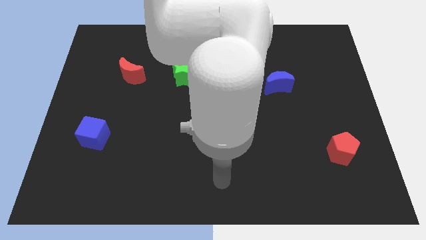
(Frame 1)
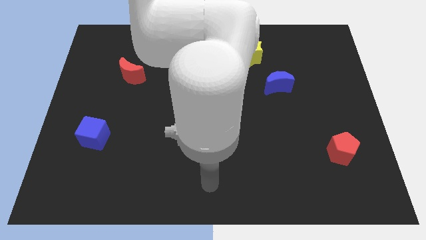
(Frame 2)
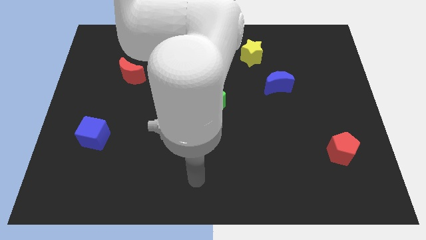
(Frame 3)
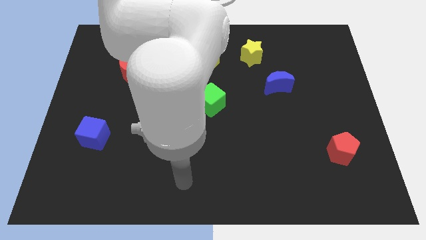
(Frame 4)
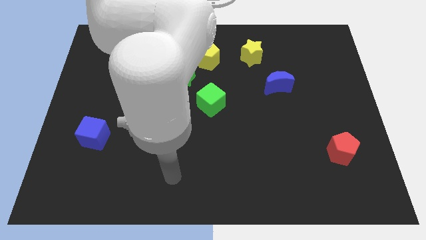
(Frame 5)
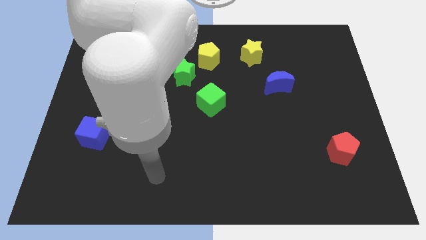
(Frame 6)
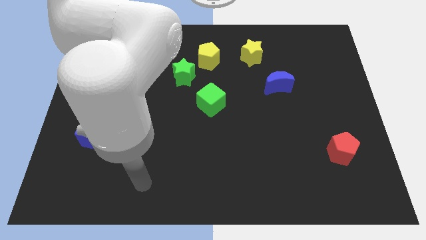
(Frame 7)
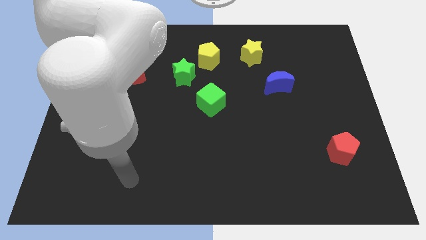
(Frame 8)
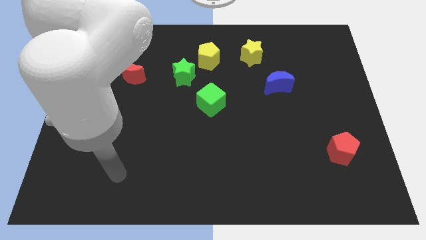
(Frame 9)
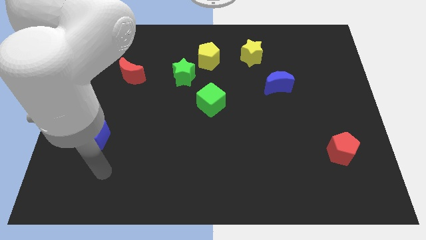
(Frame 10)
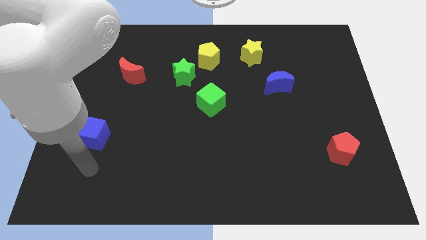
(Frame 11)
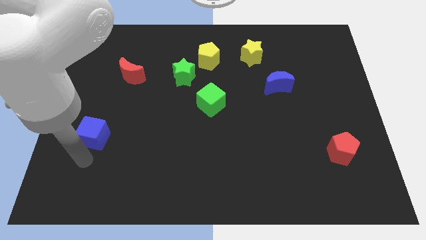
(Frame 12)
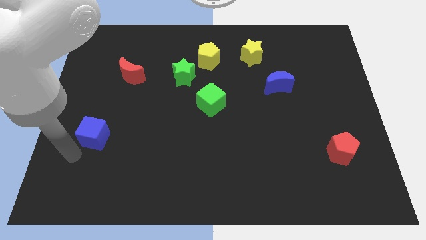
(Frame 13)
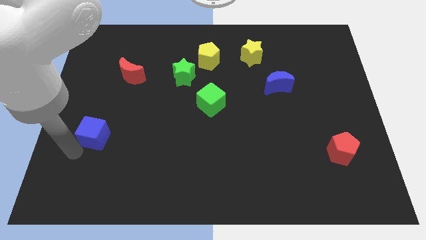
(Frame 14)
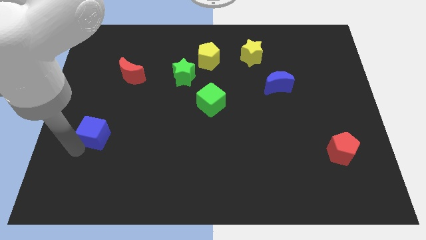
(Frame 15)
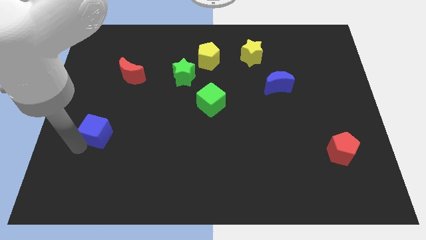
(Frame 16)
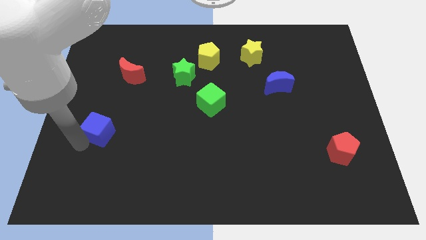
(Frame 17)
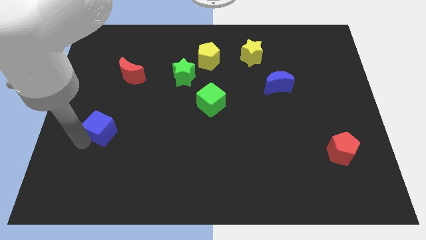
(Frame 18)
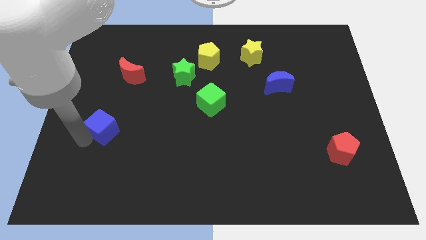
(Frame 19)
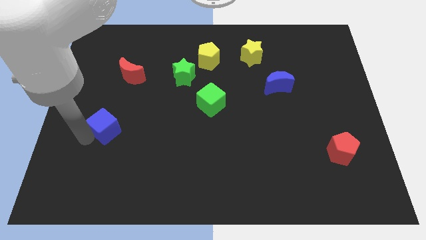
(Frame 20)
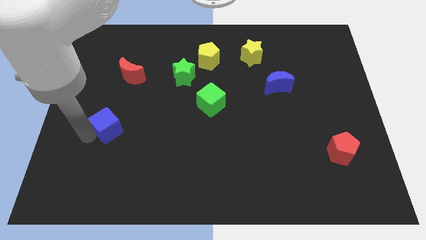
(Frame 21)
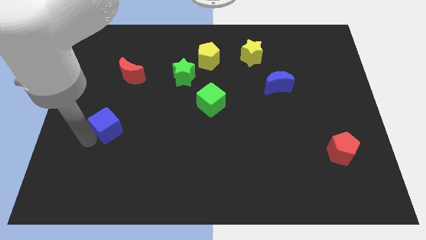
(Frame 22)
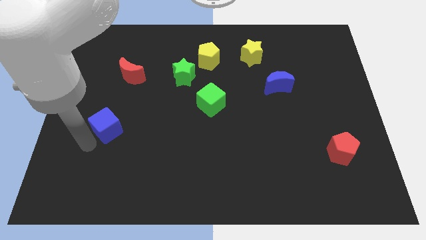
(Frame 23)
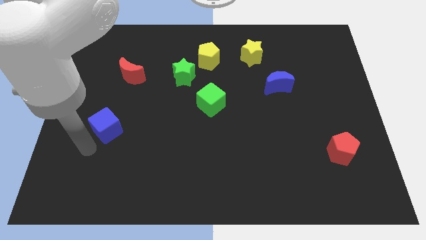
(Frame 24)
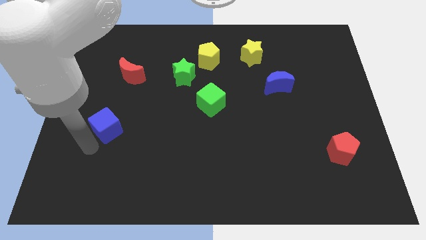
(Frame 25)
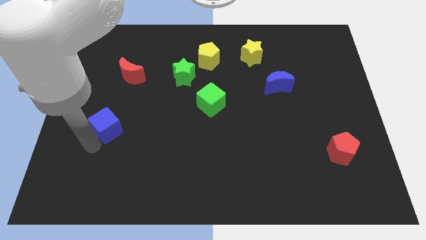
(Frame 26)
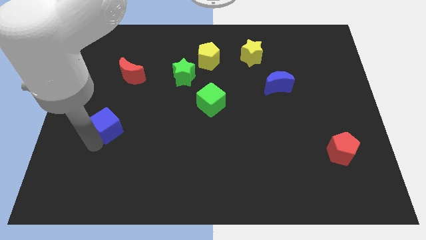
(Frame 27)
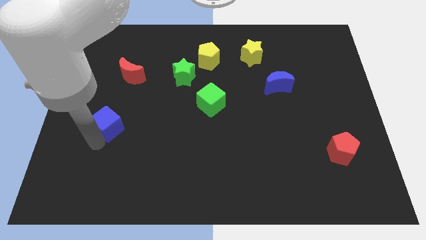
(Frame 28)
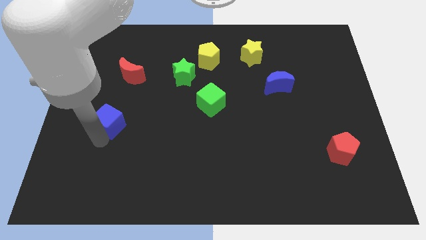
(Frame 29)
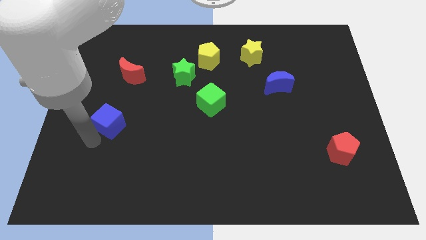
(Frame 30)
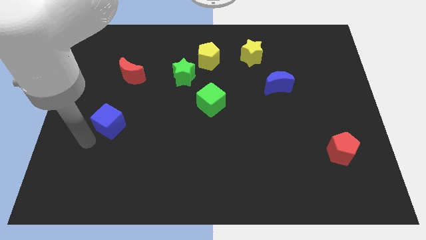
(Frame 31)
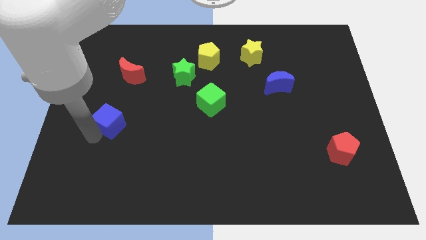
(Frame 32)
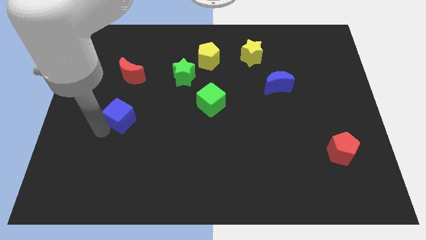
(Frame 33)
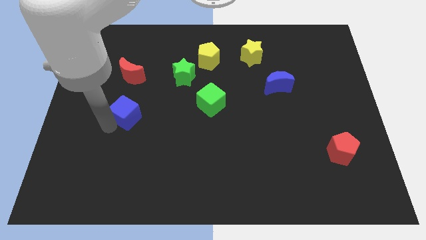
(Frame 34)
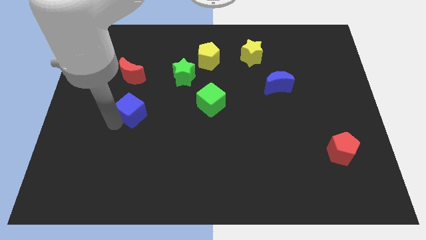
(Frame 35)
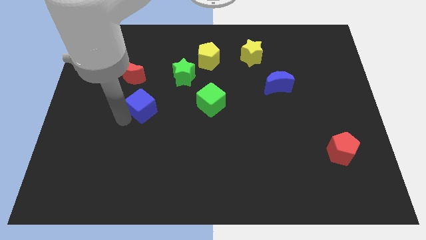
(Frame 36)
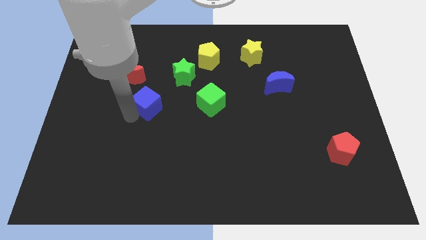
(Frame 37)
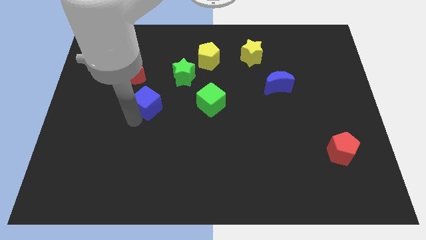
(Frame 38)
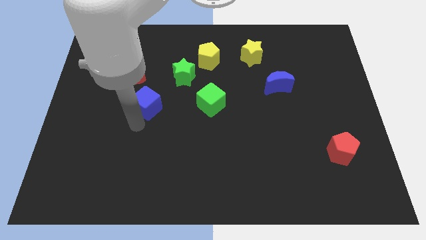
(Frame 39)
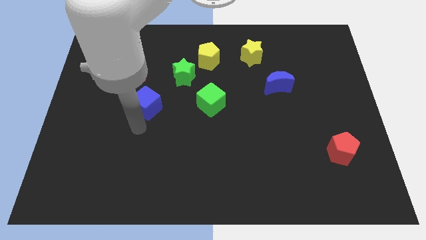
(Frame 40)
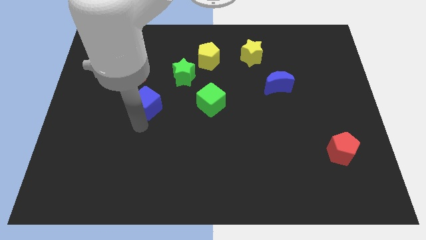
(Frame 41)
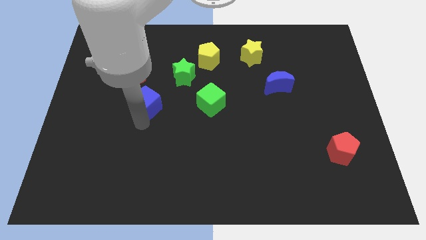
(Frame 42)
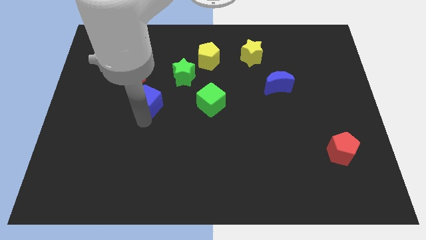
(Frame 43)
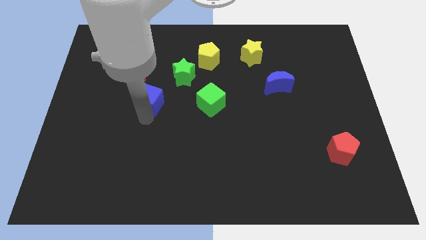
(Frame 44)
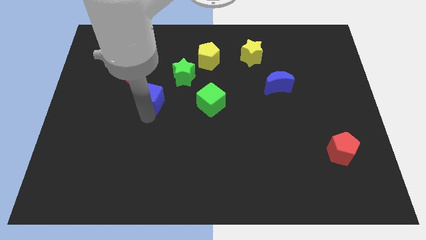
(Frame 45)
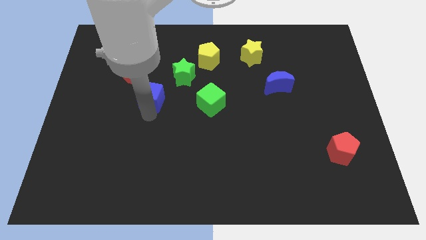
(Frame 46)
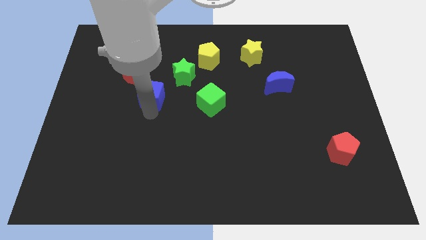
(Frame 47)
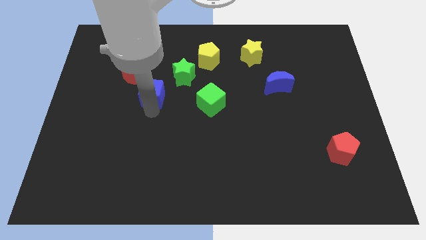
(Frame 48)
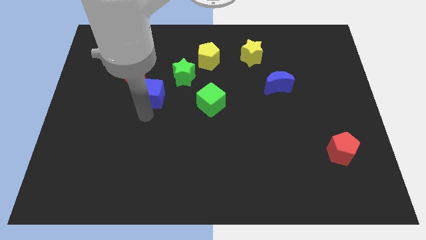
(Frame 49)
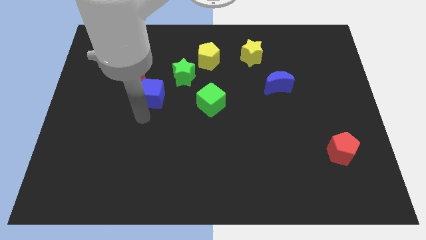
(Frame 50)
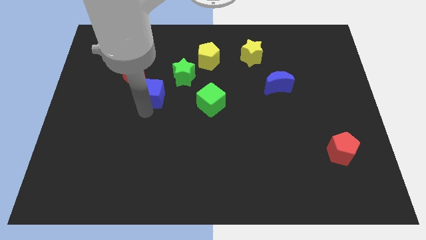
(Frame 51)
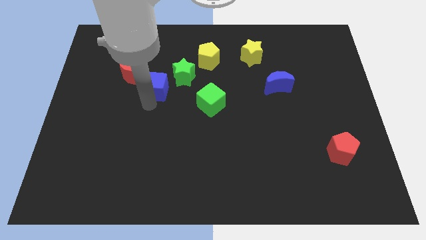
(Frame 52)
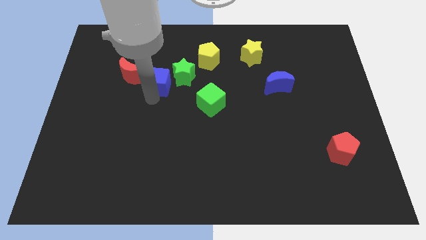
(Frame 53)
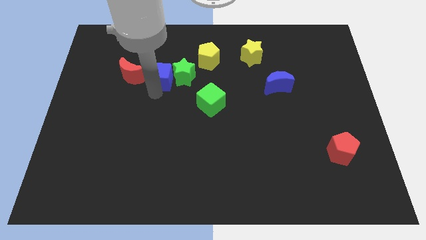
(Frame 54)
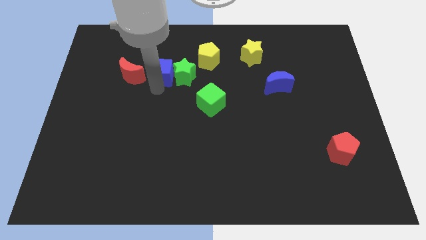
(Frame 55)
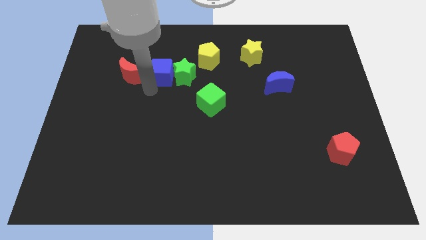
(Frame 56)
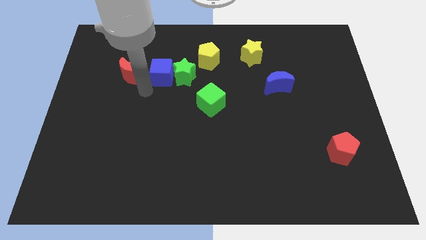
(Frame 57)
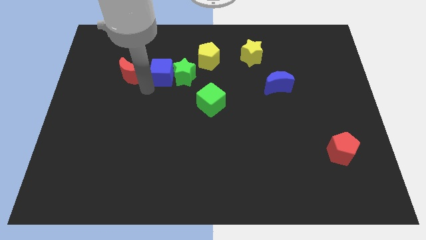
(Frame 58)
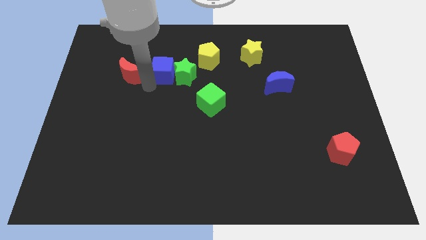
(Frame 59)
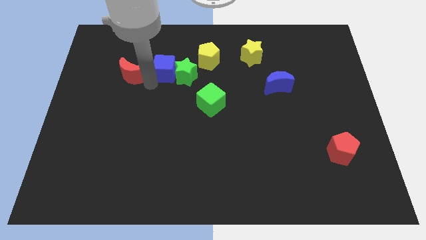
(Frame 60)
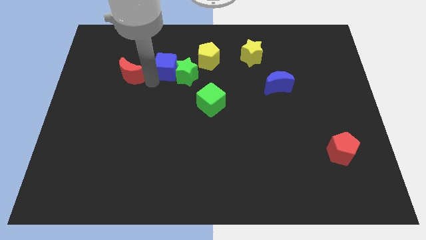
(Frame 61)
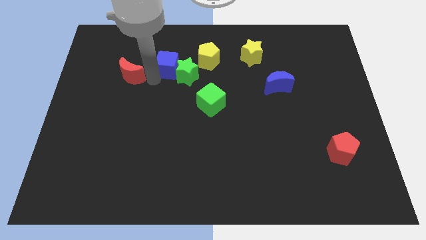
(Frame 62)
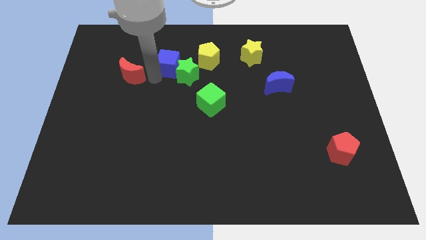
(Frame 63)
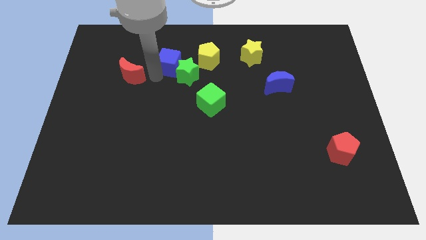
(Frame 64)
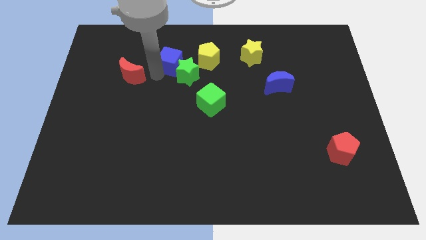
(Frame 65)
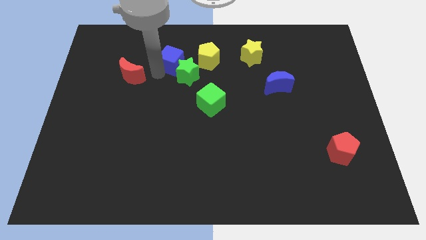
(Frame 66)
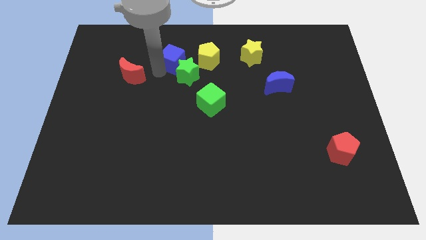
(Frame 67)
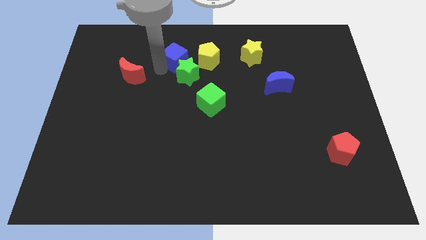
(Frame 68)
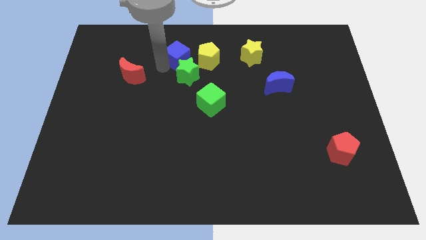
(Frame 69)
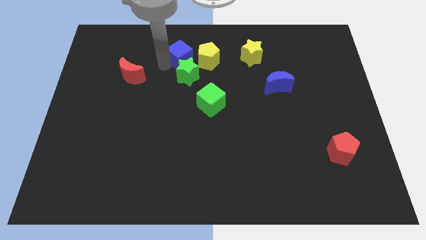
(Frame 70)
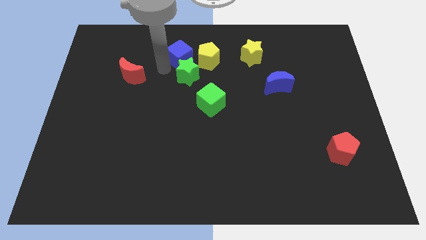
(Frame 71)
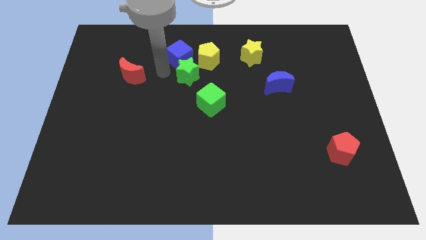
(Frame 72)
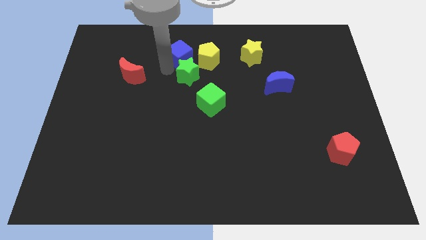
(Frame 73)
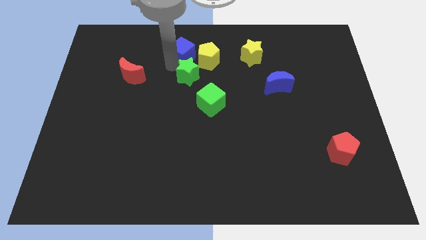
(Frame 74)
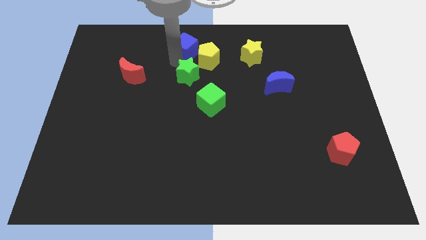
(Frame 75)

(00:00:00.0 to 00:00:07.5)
move the blue cube to the towards your base
